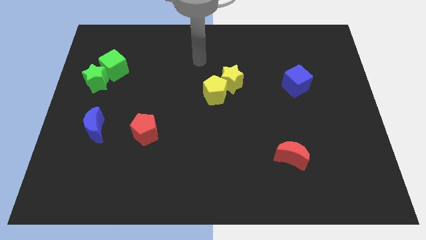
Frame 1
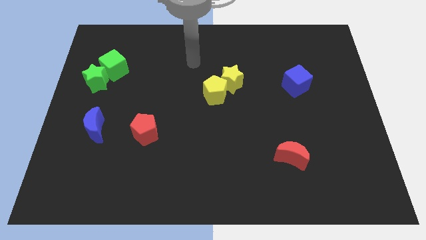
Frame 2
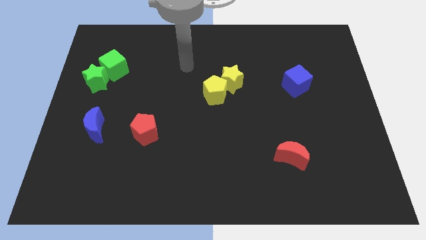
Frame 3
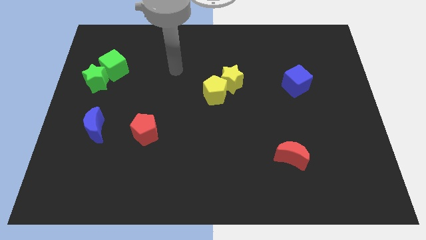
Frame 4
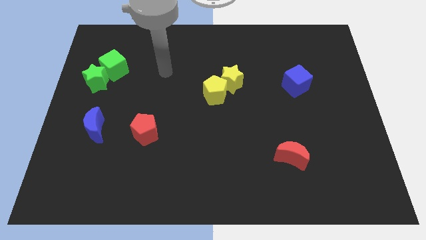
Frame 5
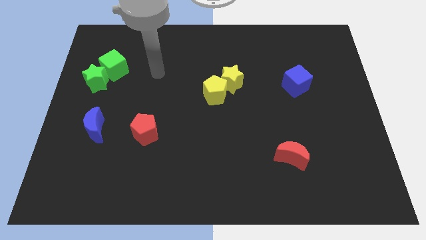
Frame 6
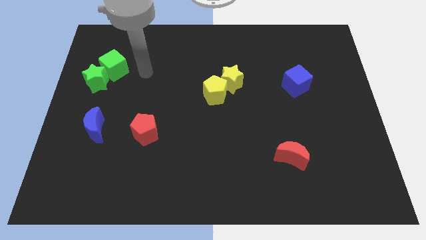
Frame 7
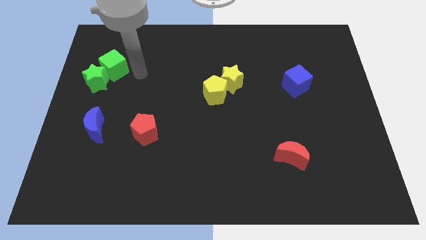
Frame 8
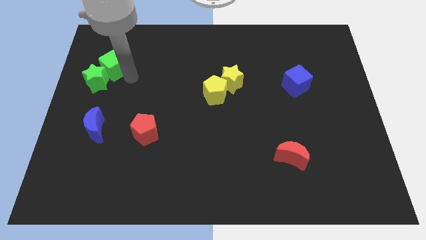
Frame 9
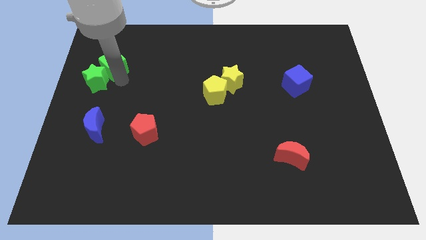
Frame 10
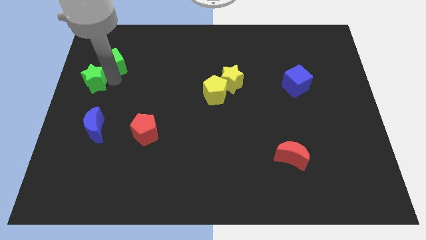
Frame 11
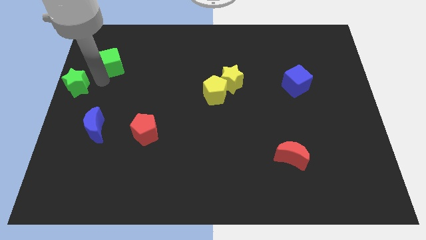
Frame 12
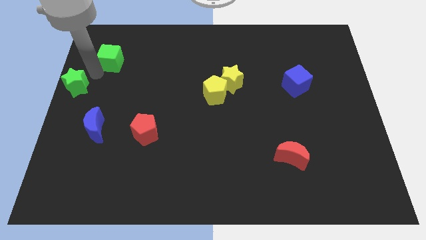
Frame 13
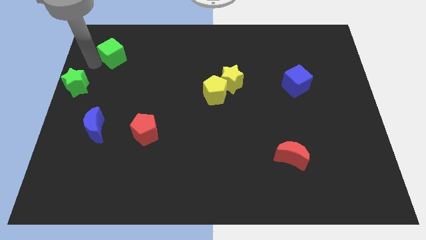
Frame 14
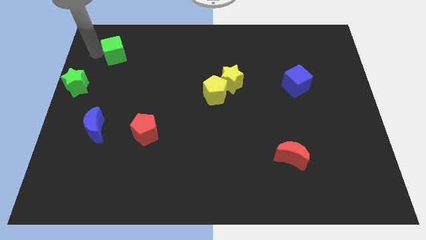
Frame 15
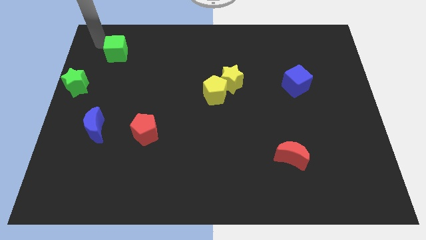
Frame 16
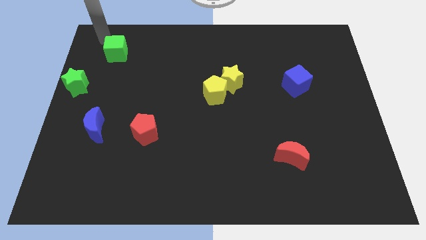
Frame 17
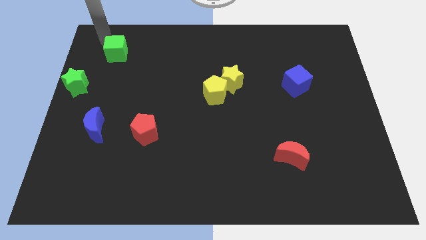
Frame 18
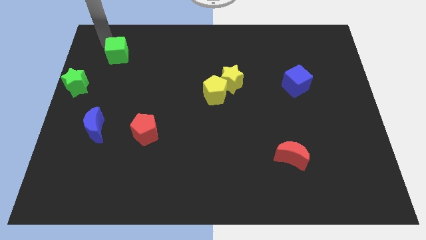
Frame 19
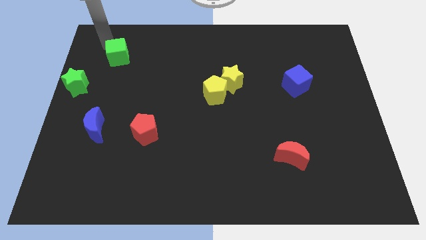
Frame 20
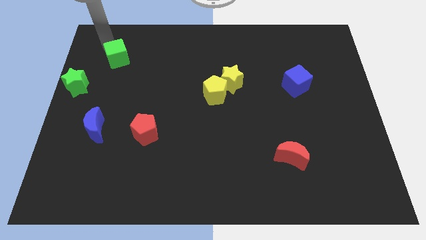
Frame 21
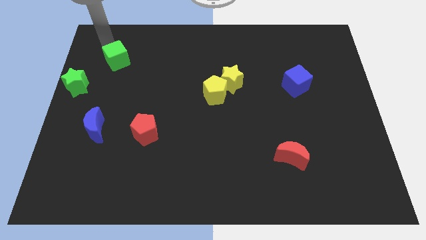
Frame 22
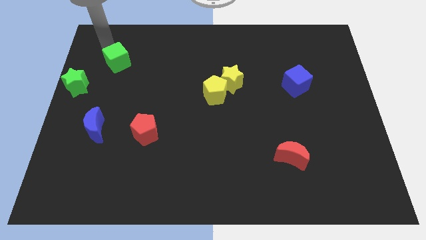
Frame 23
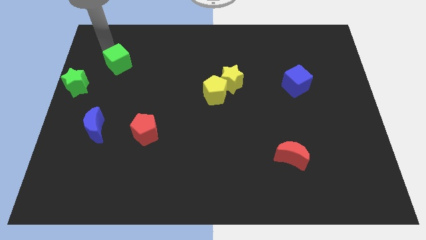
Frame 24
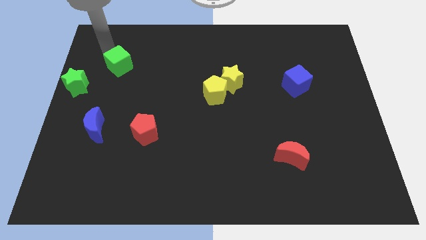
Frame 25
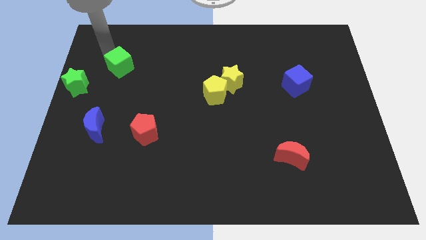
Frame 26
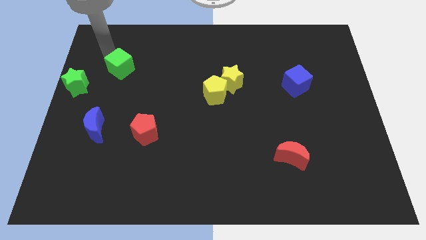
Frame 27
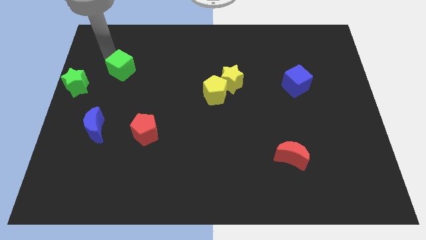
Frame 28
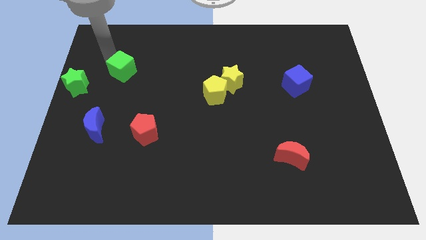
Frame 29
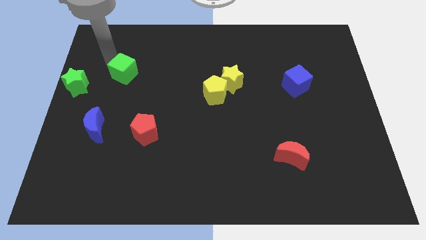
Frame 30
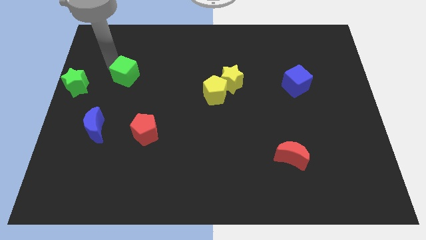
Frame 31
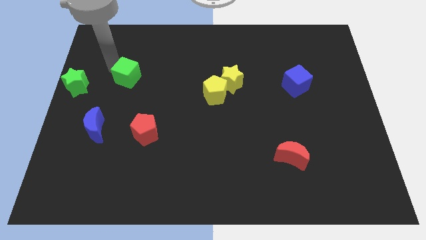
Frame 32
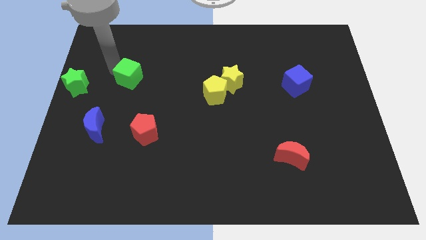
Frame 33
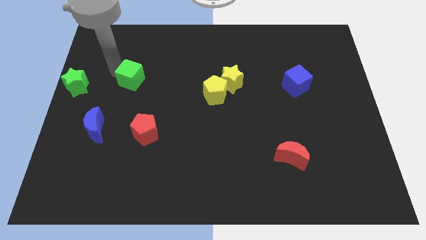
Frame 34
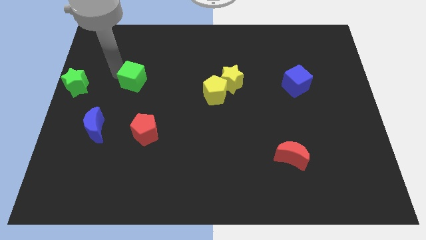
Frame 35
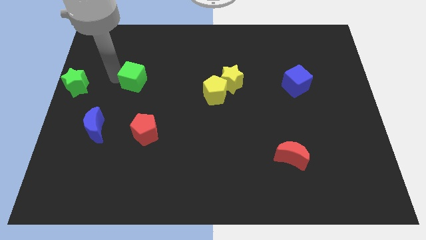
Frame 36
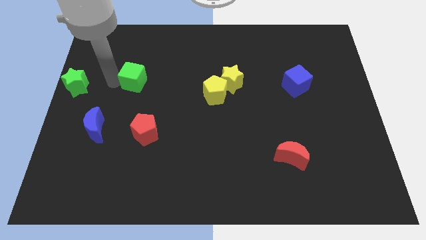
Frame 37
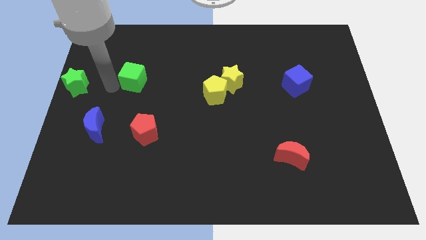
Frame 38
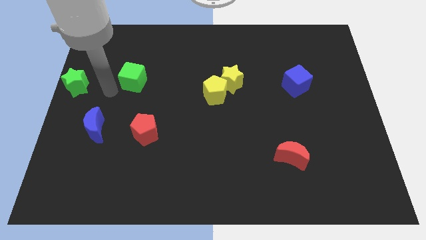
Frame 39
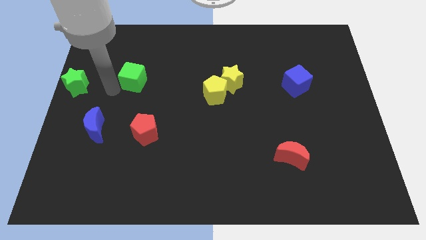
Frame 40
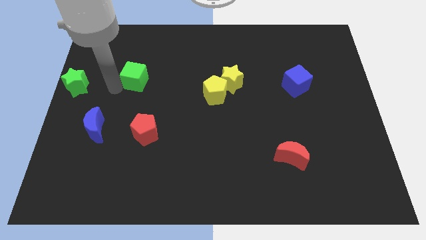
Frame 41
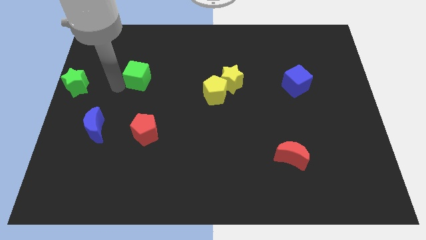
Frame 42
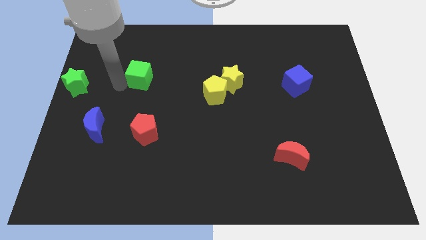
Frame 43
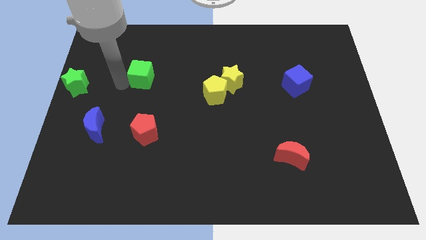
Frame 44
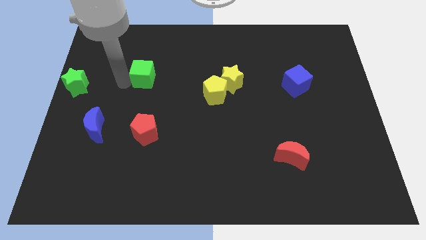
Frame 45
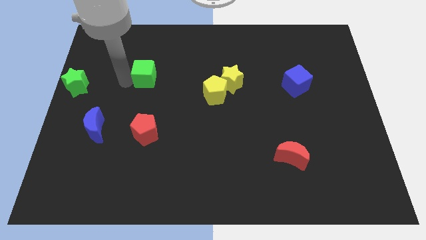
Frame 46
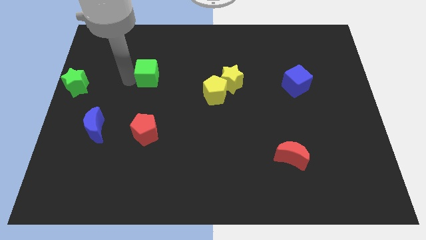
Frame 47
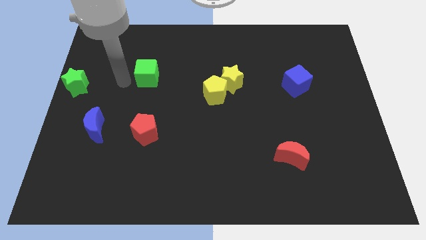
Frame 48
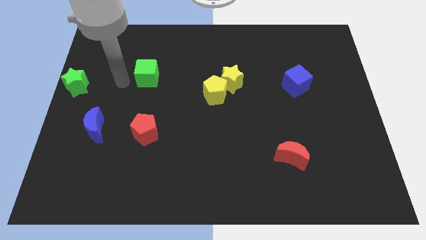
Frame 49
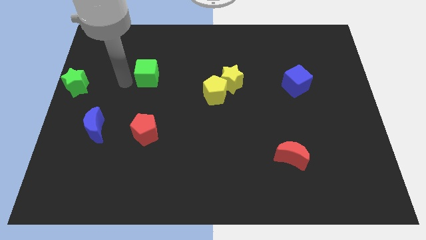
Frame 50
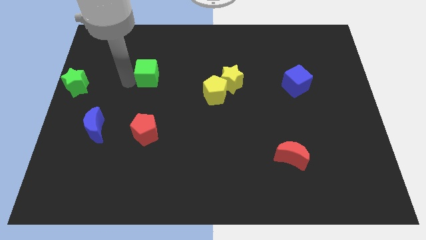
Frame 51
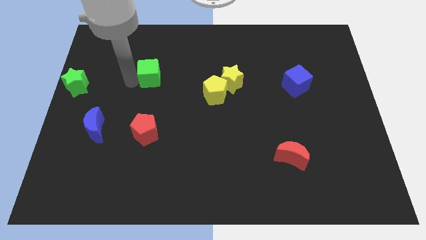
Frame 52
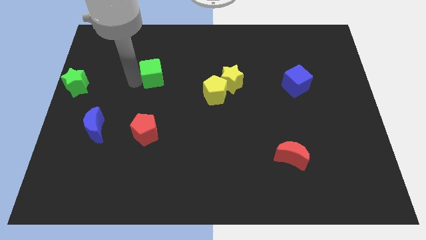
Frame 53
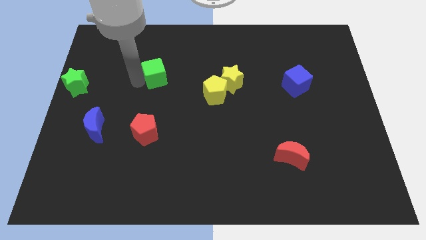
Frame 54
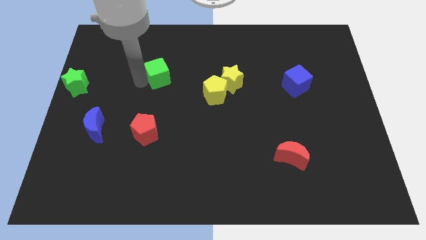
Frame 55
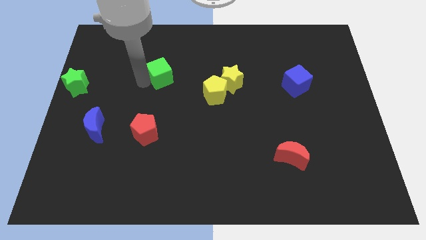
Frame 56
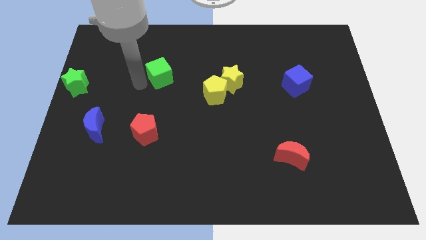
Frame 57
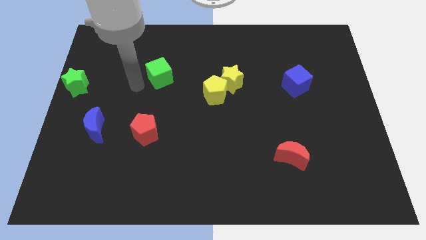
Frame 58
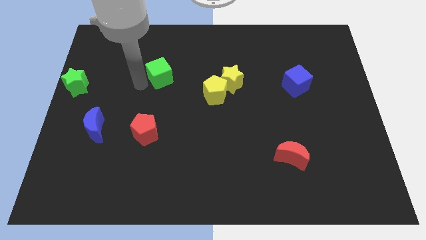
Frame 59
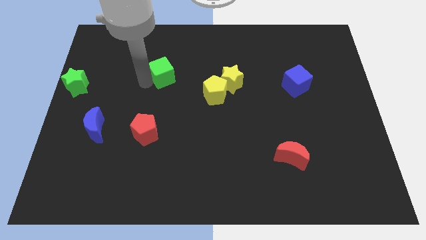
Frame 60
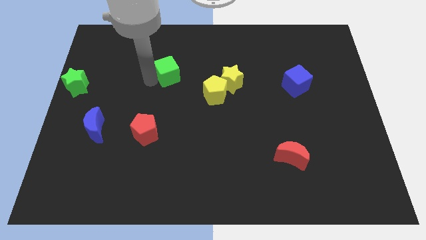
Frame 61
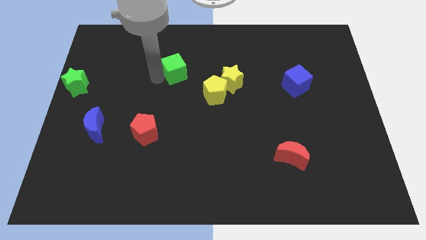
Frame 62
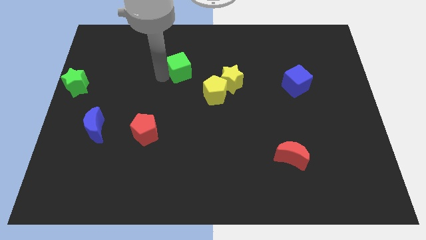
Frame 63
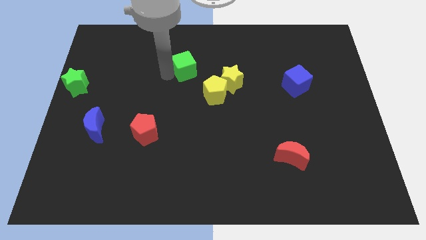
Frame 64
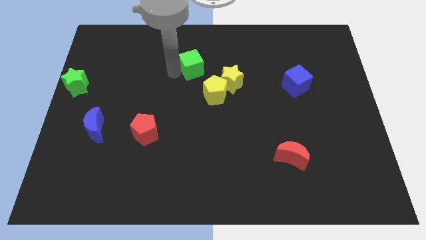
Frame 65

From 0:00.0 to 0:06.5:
push the green cube right

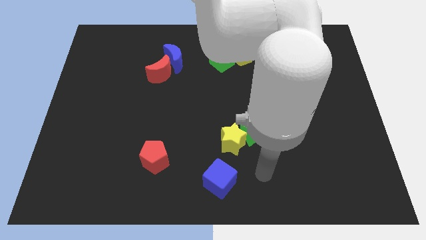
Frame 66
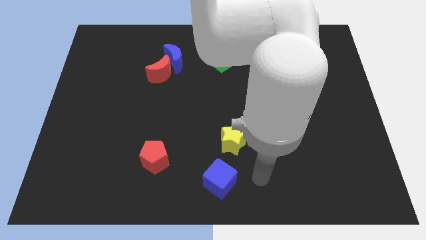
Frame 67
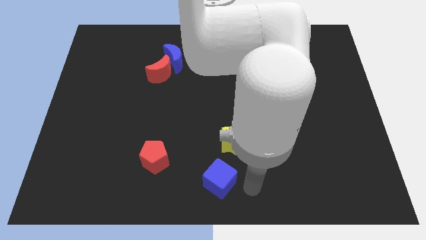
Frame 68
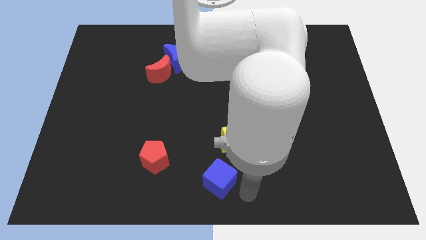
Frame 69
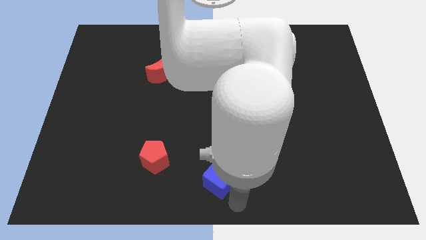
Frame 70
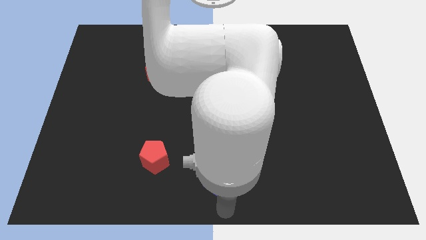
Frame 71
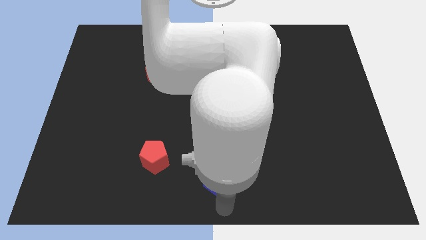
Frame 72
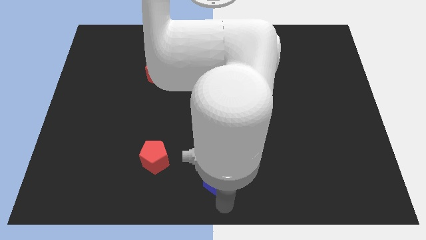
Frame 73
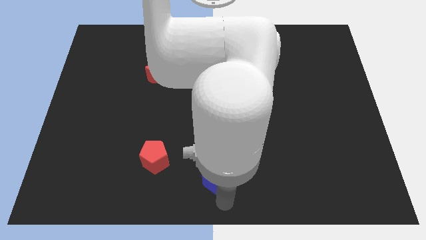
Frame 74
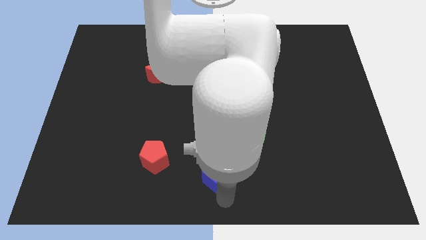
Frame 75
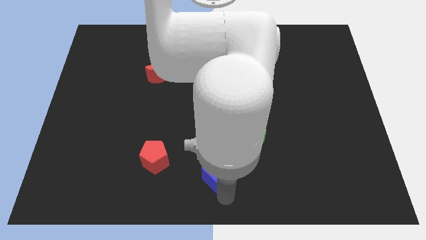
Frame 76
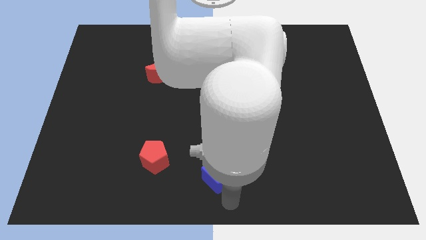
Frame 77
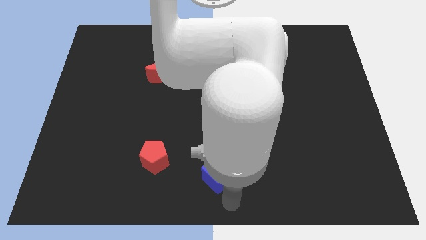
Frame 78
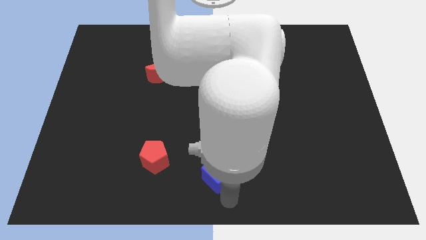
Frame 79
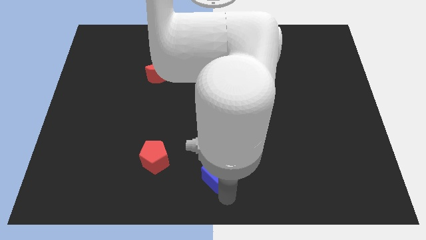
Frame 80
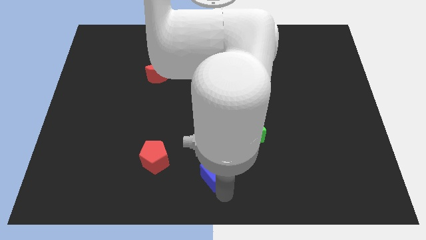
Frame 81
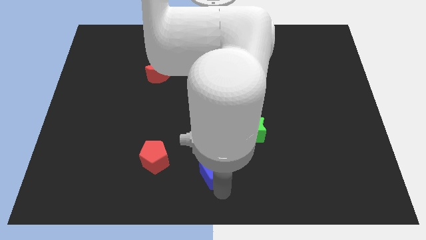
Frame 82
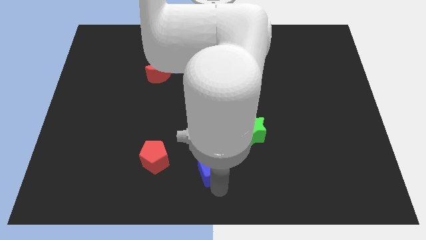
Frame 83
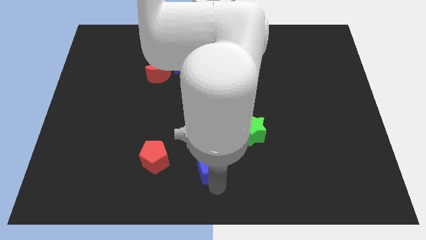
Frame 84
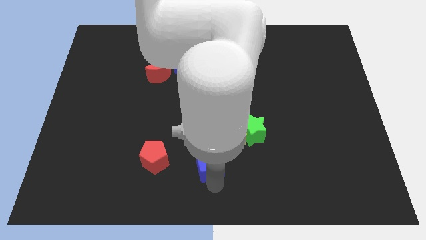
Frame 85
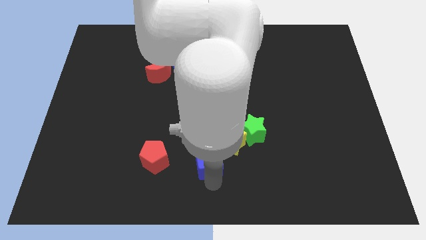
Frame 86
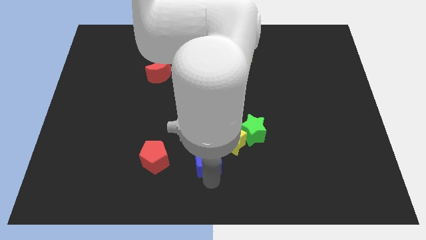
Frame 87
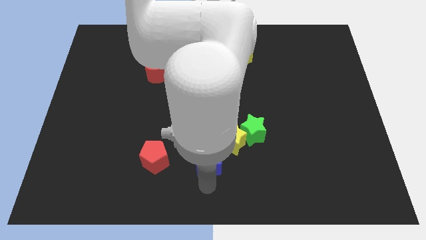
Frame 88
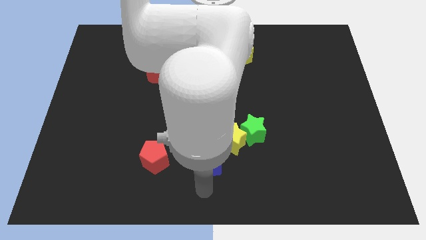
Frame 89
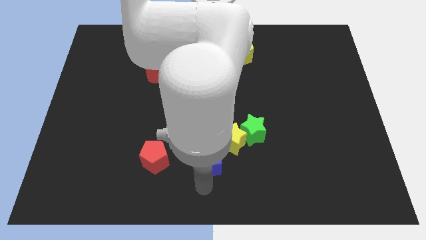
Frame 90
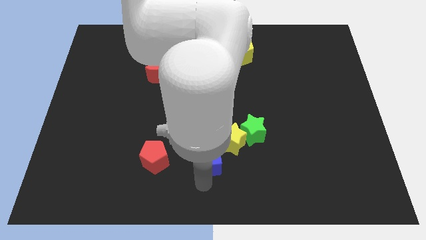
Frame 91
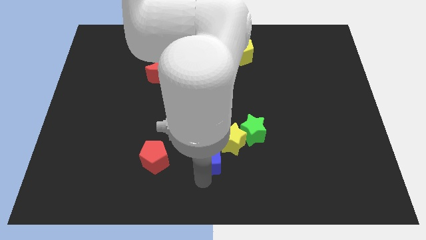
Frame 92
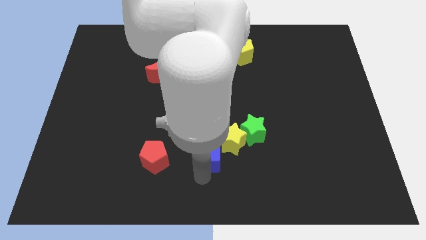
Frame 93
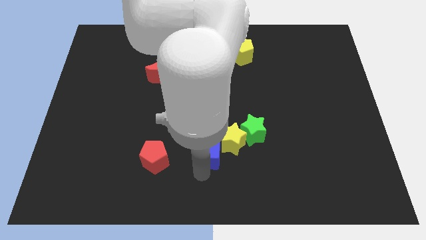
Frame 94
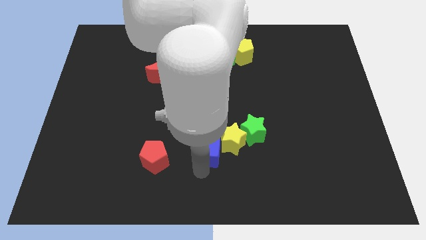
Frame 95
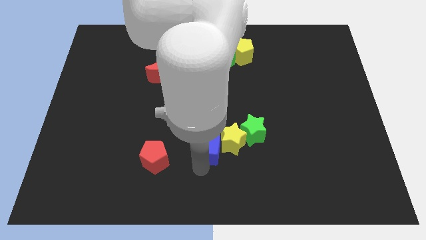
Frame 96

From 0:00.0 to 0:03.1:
push the blue cube a bit upwards
